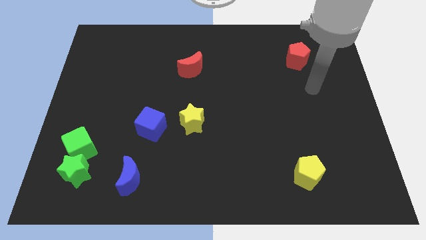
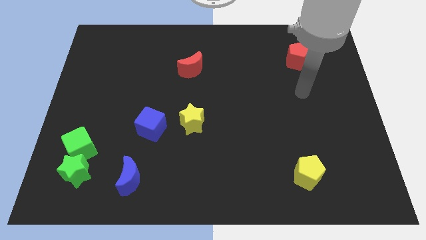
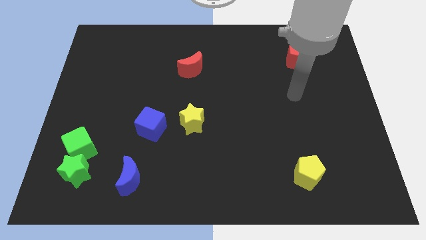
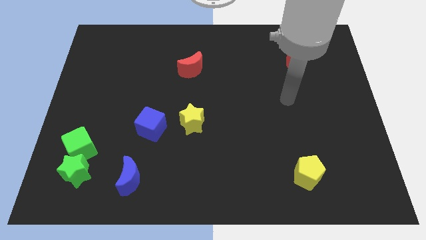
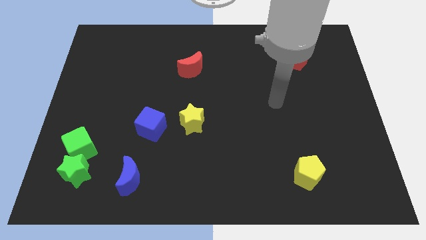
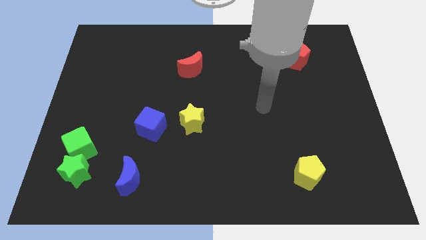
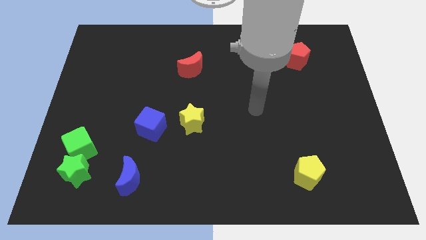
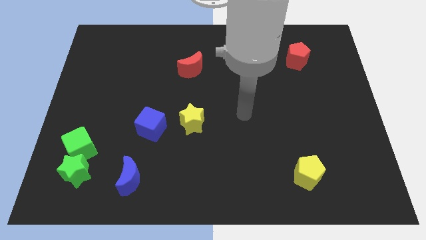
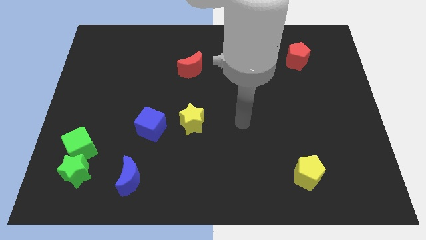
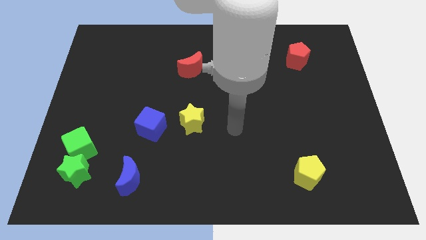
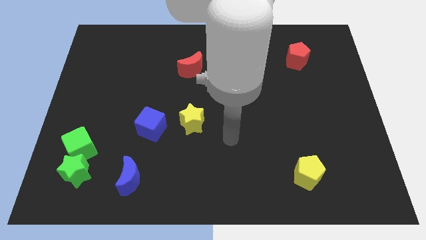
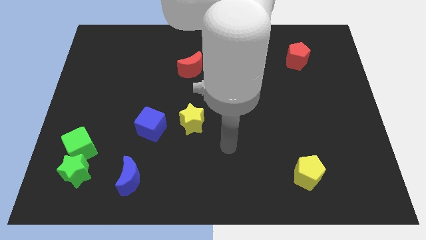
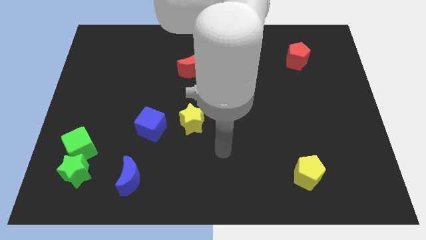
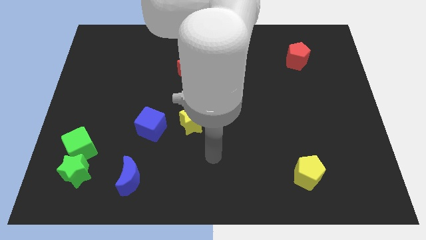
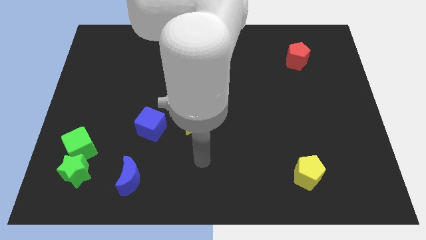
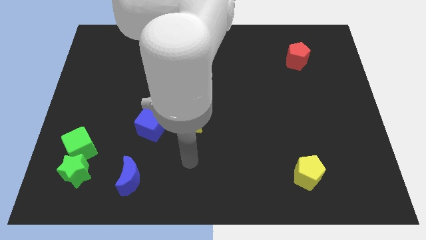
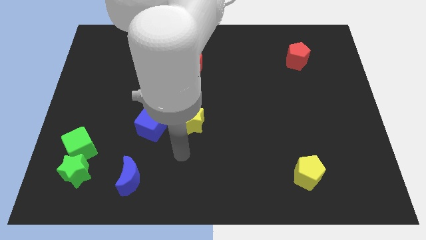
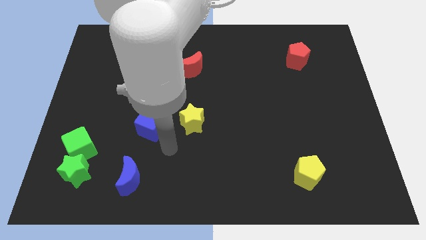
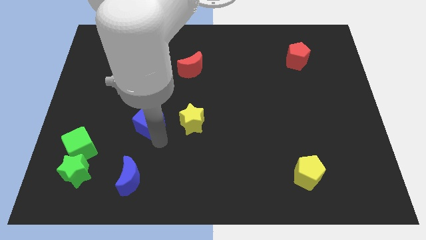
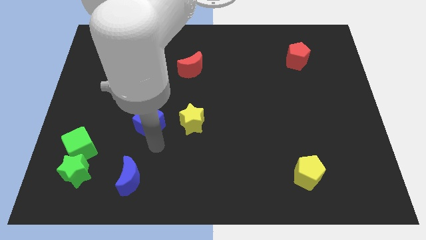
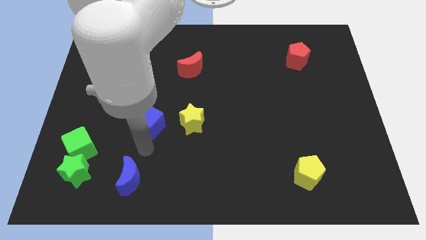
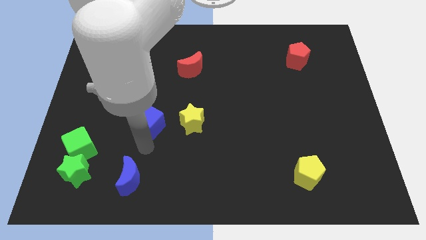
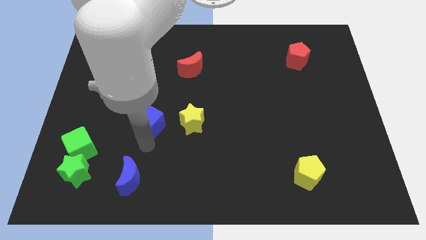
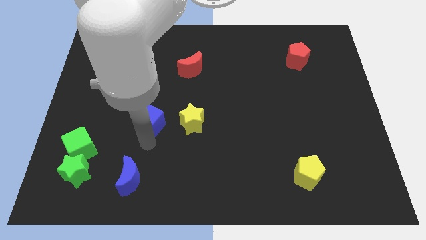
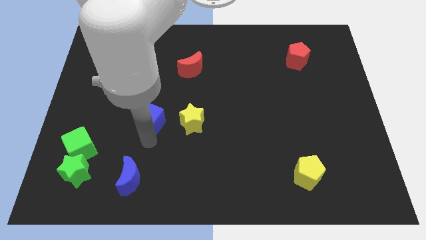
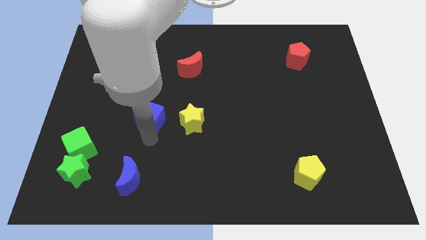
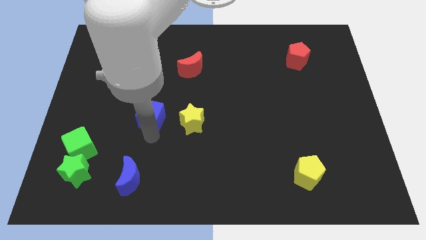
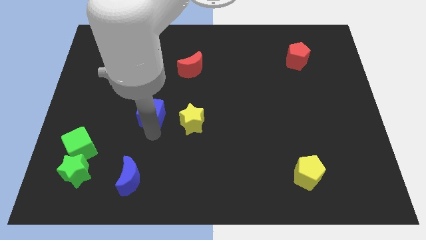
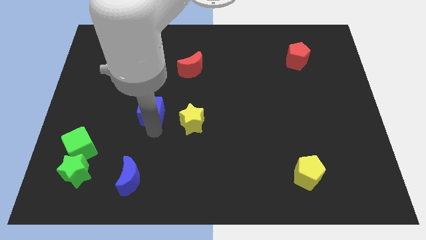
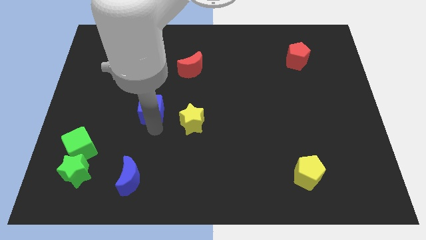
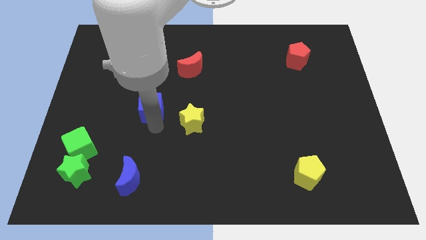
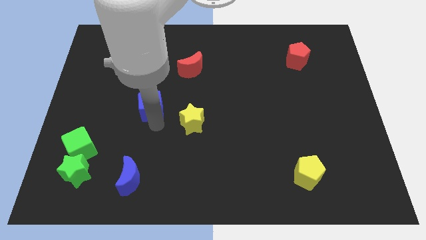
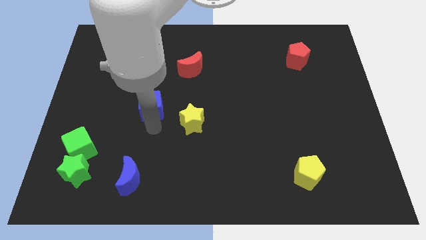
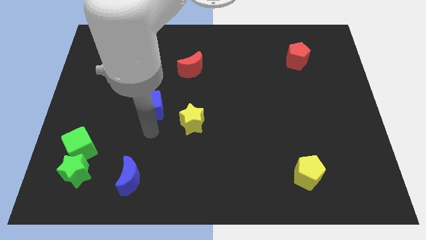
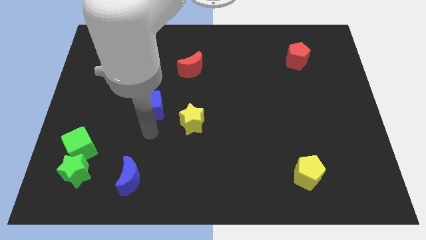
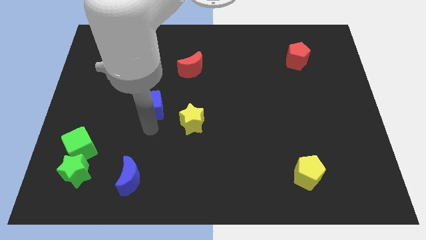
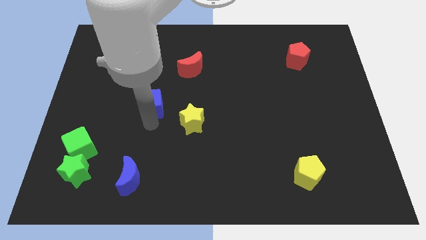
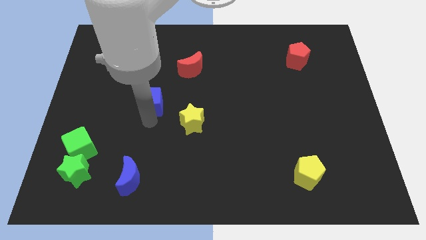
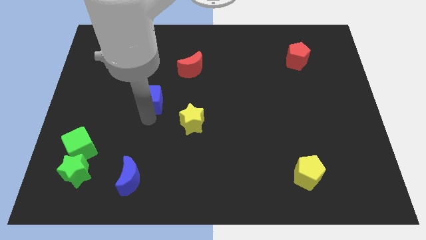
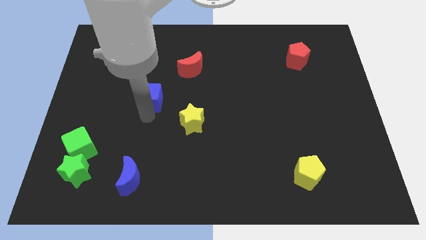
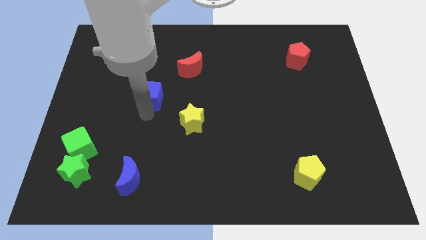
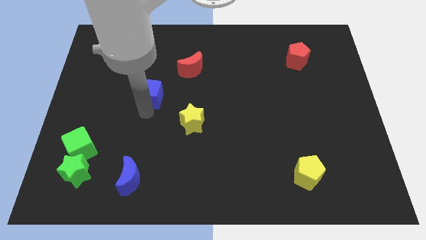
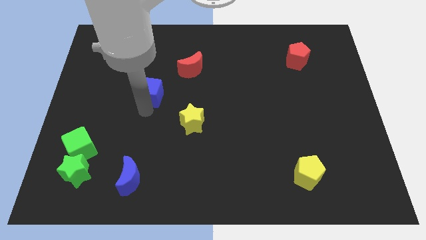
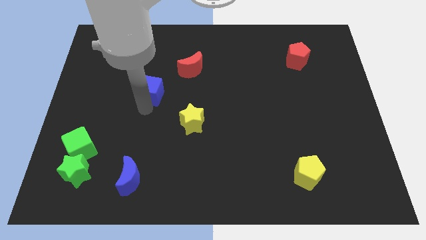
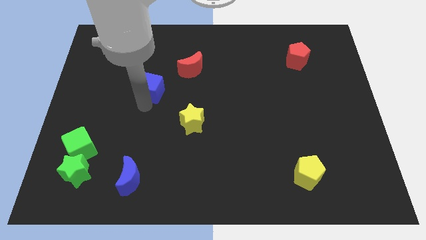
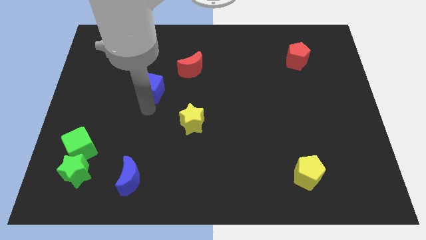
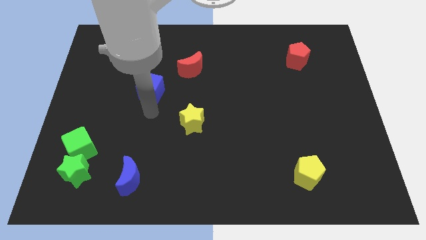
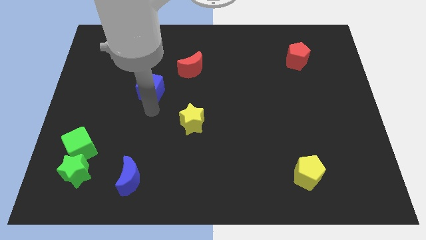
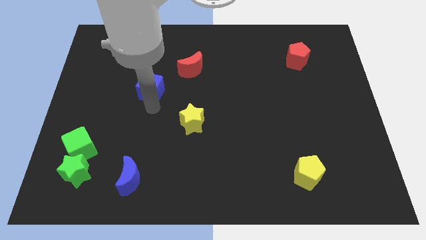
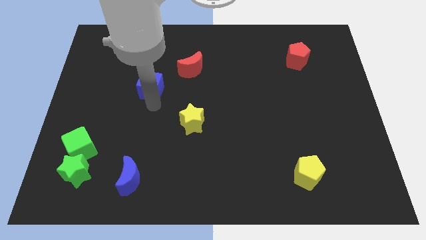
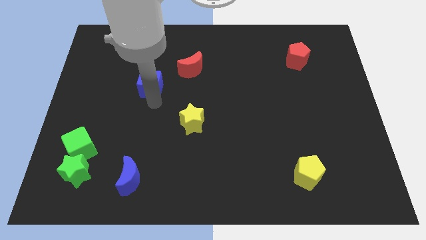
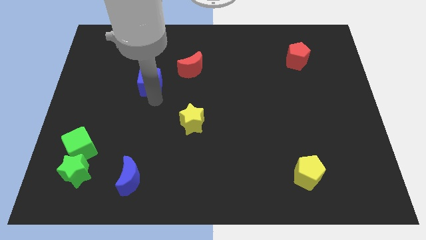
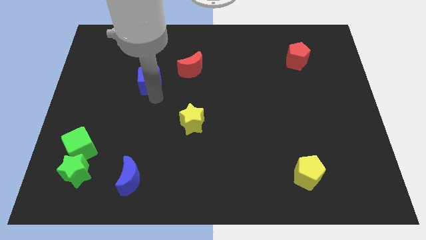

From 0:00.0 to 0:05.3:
put the blue cube to the left side of the red moon

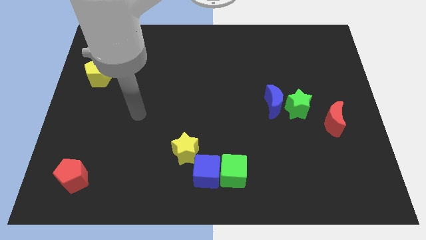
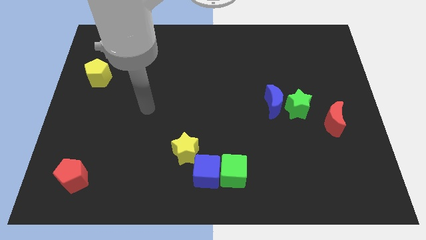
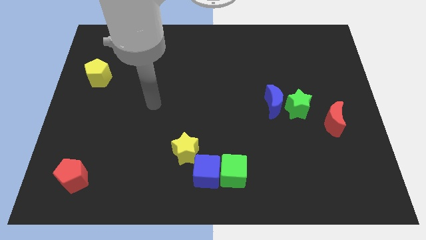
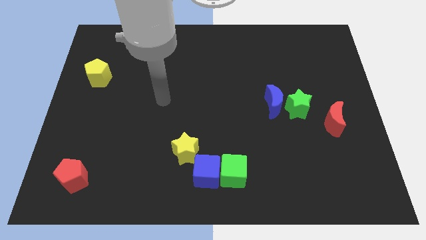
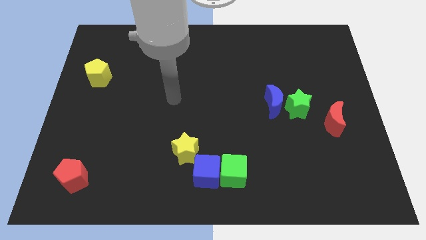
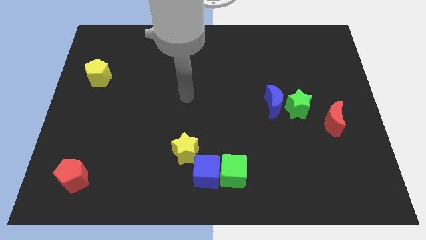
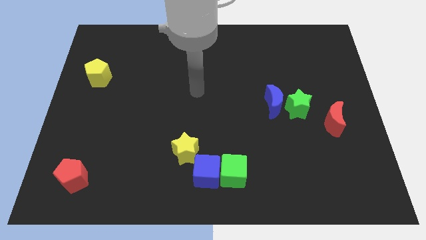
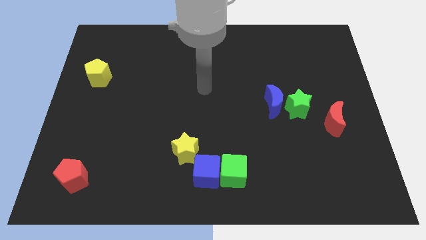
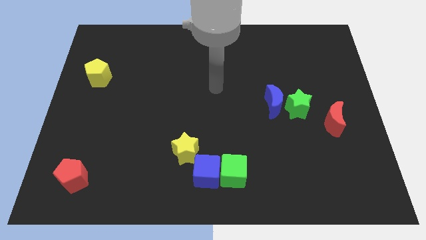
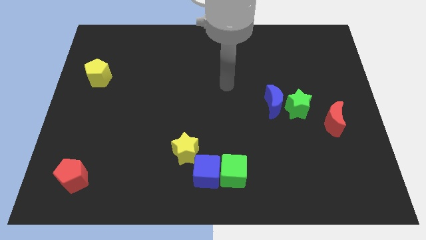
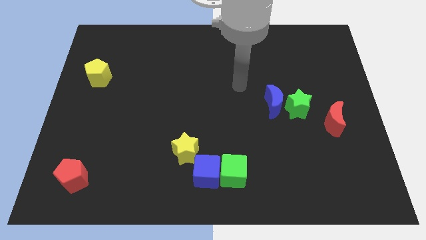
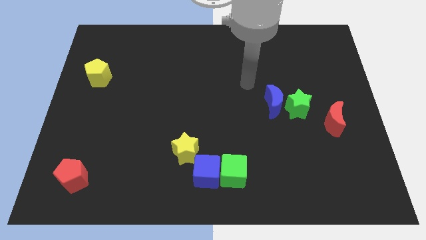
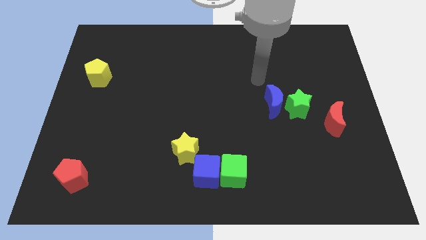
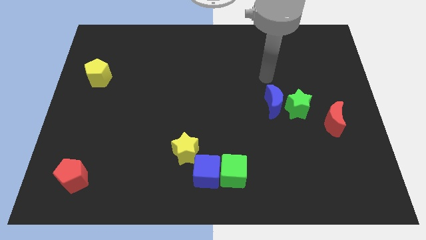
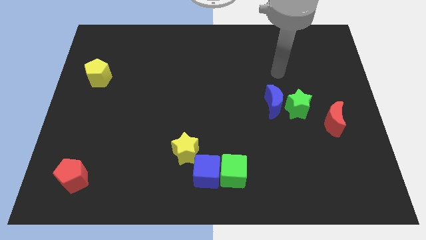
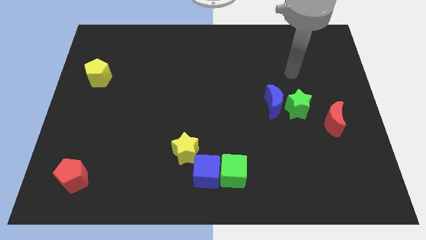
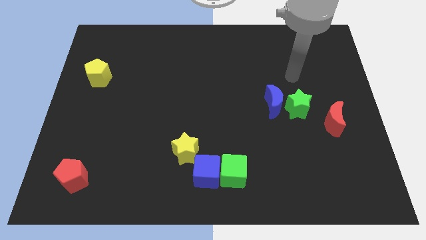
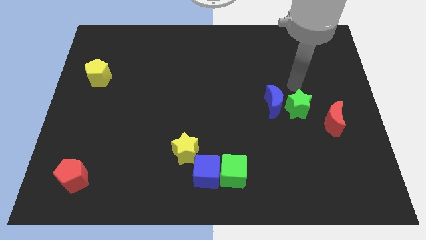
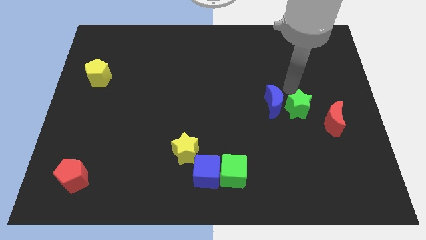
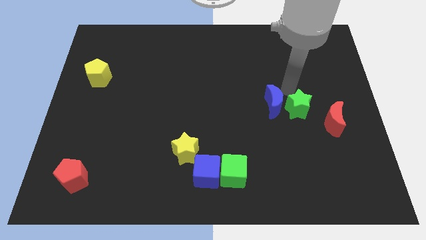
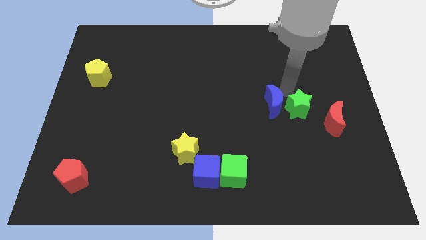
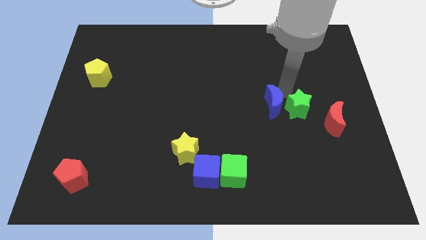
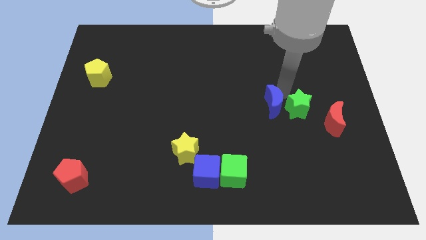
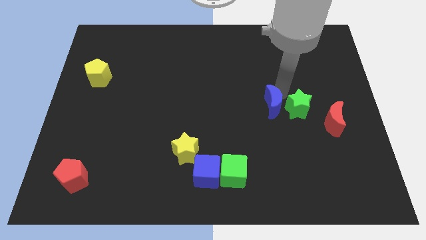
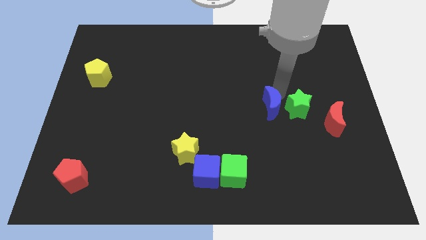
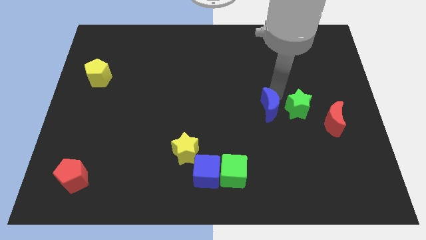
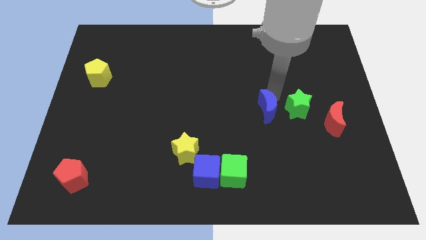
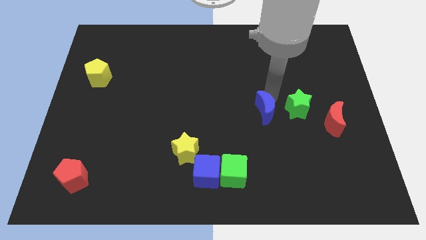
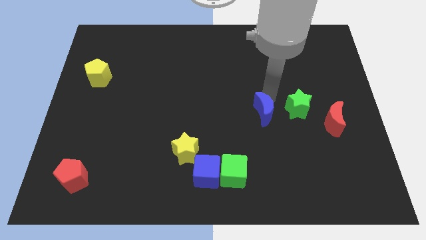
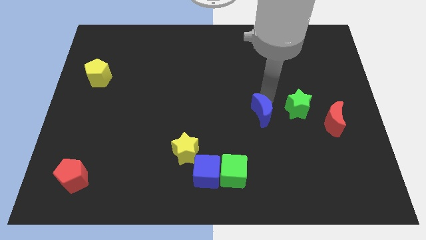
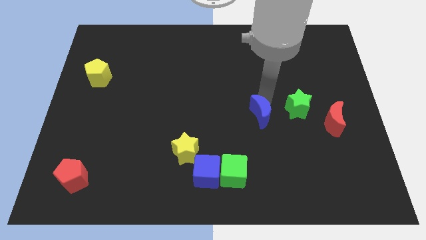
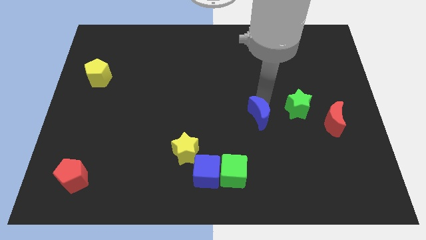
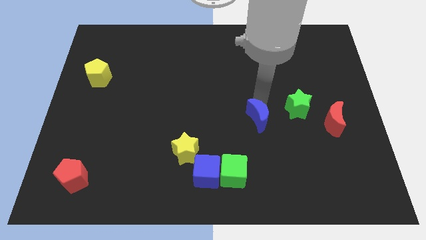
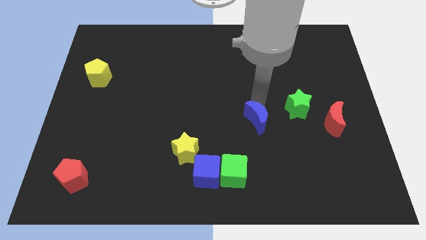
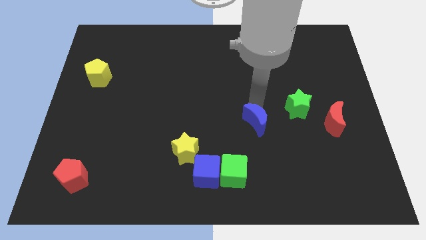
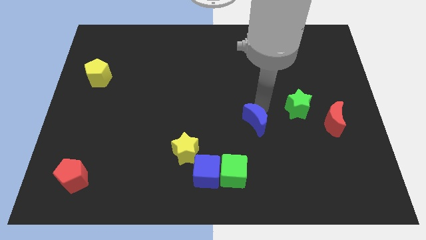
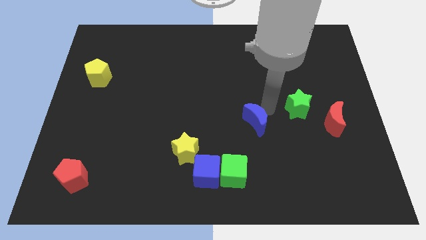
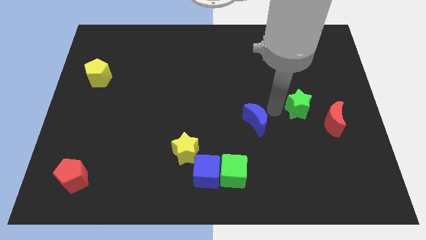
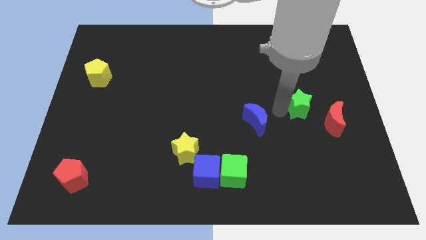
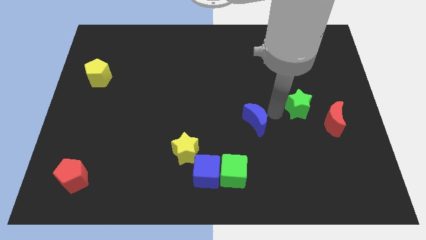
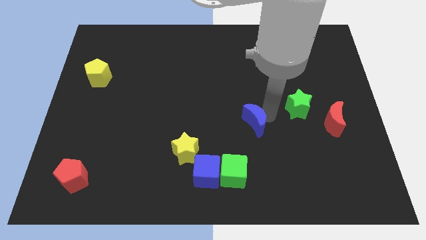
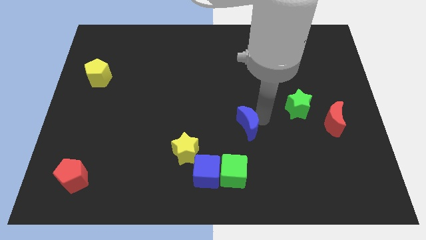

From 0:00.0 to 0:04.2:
move the blue moon to the top of the green cube
